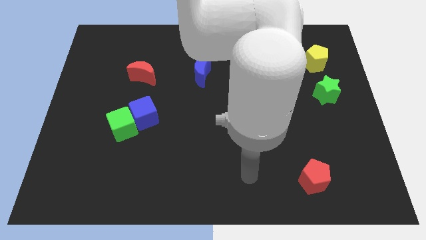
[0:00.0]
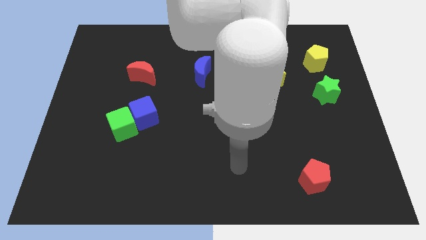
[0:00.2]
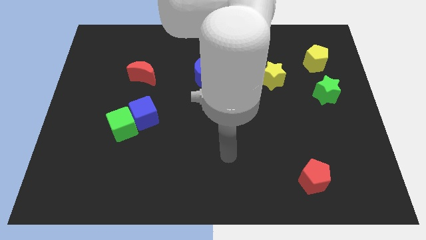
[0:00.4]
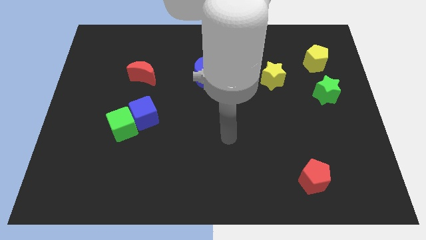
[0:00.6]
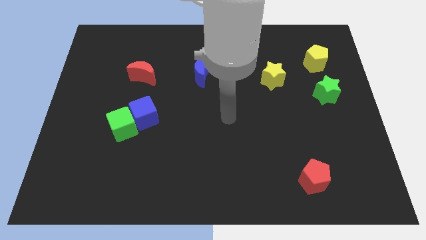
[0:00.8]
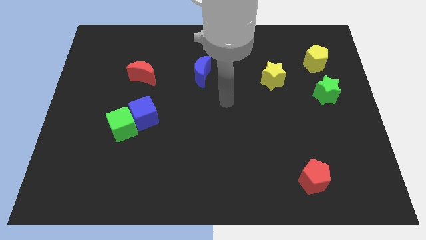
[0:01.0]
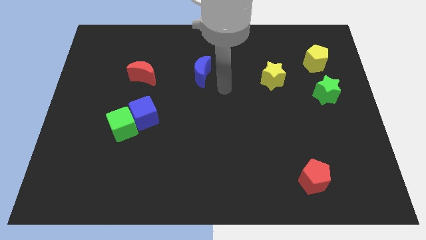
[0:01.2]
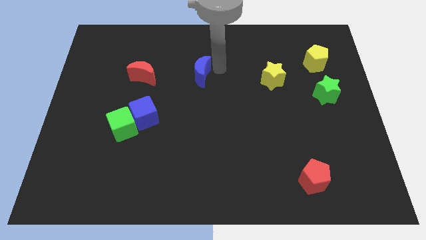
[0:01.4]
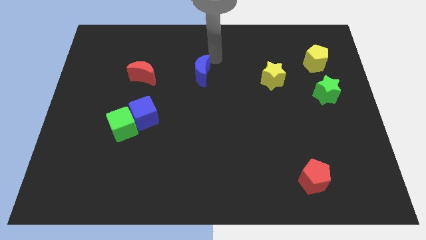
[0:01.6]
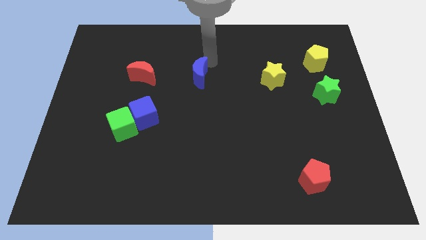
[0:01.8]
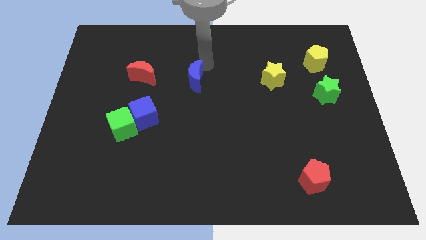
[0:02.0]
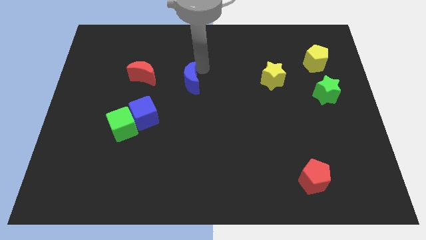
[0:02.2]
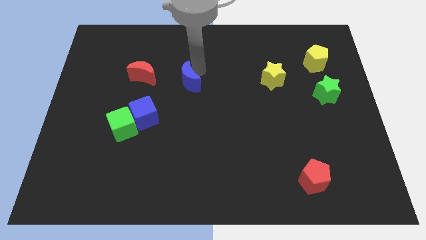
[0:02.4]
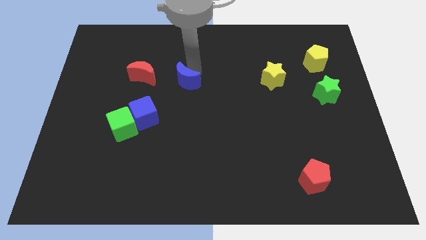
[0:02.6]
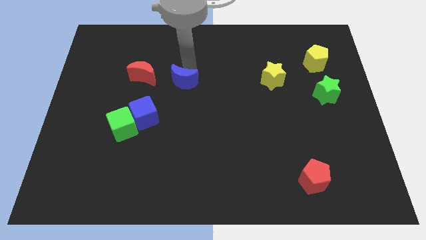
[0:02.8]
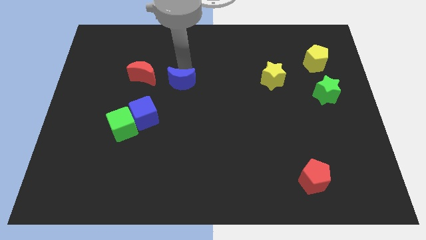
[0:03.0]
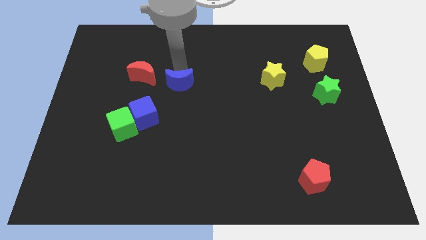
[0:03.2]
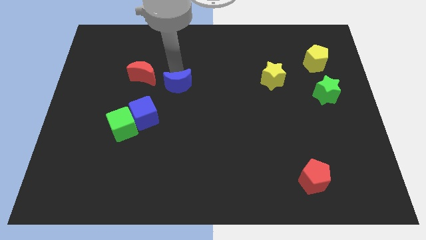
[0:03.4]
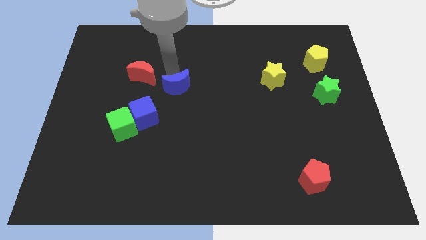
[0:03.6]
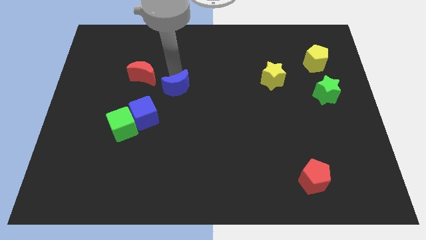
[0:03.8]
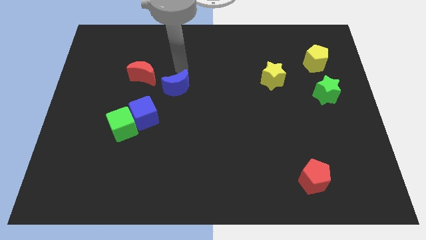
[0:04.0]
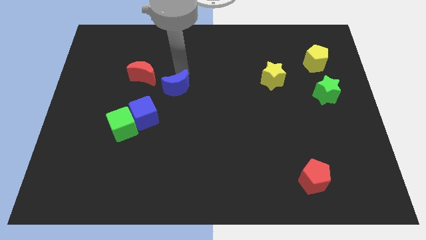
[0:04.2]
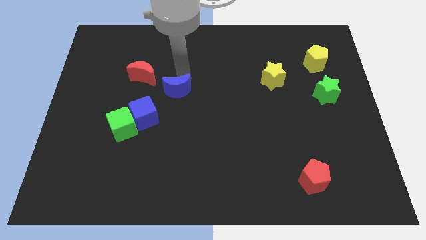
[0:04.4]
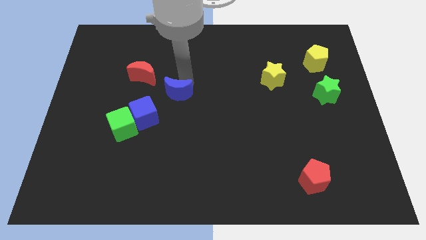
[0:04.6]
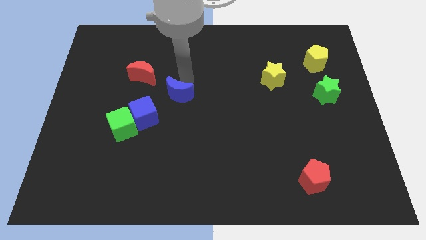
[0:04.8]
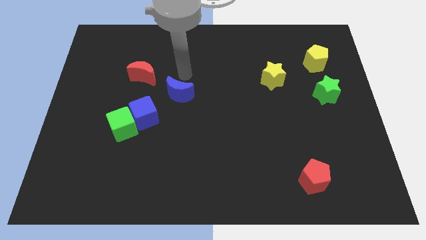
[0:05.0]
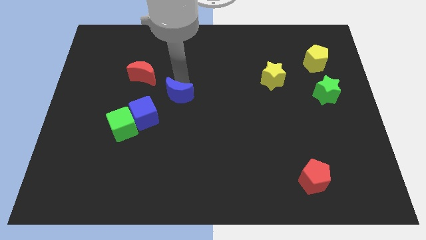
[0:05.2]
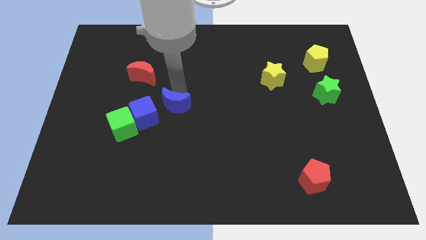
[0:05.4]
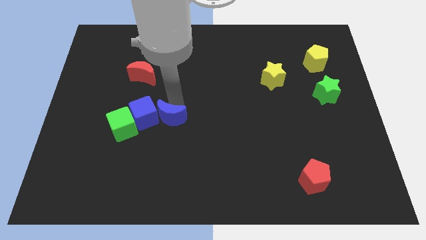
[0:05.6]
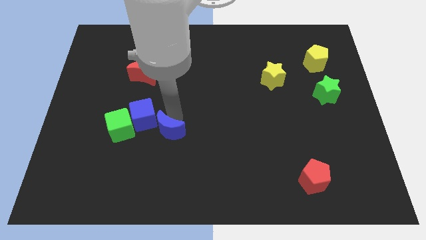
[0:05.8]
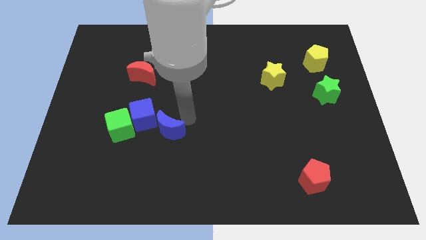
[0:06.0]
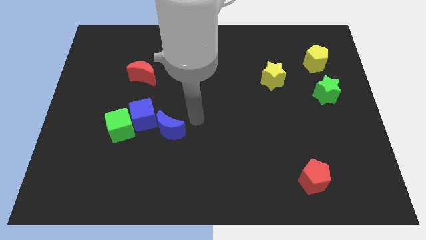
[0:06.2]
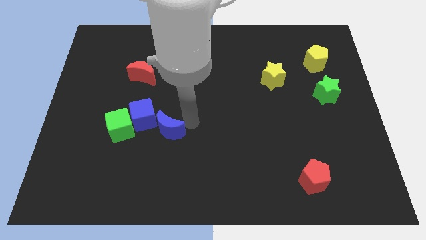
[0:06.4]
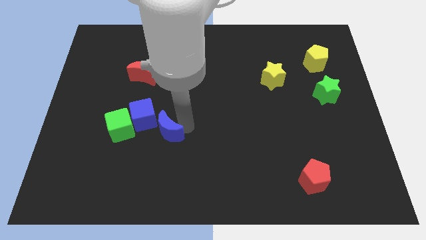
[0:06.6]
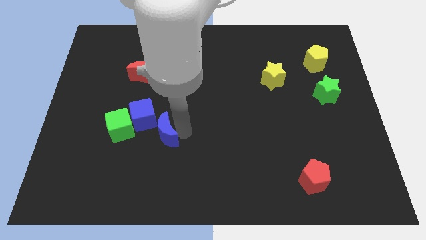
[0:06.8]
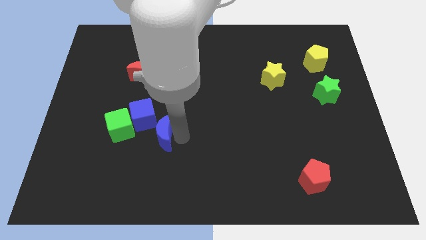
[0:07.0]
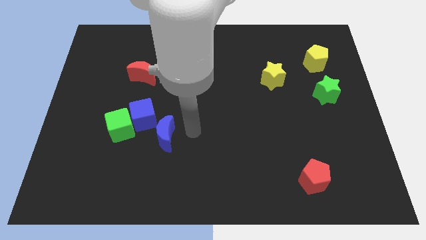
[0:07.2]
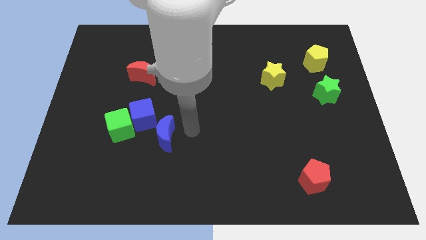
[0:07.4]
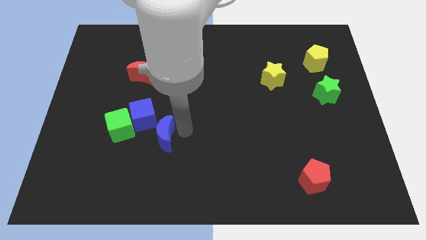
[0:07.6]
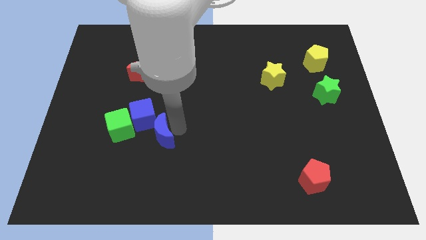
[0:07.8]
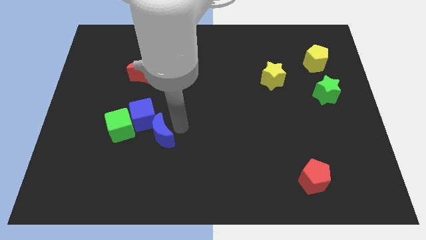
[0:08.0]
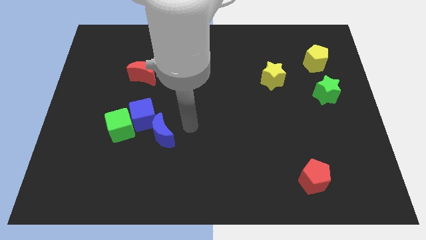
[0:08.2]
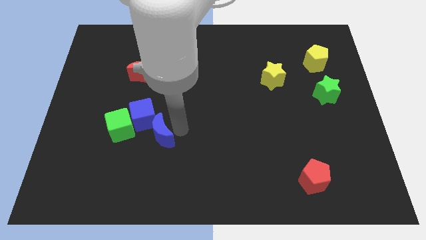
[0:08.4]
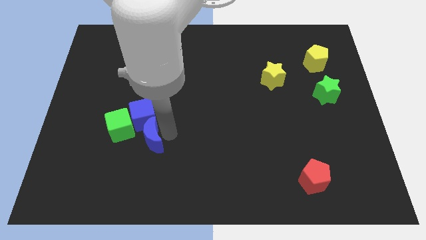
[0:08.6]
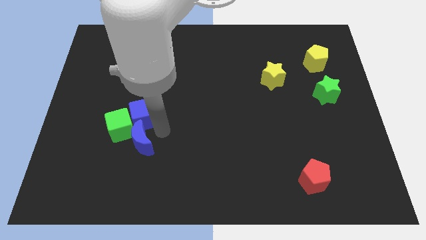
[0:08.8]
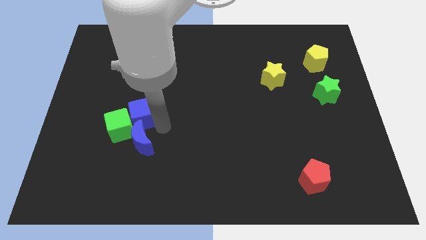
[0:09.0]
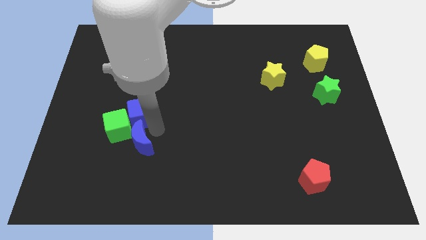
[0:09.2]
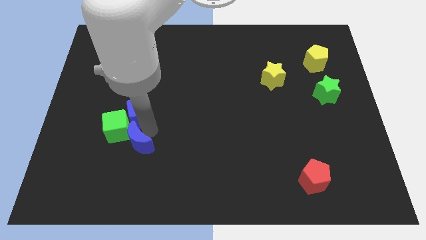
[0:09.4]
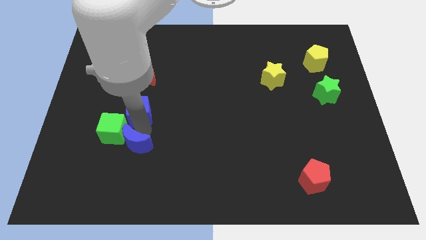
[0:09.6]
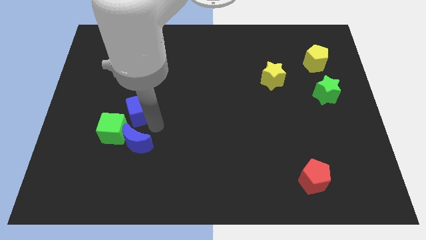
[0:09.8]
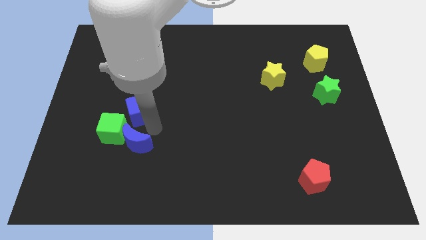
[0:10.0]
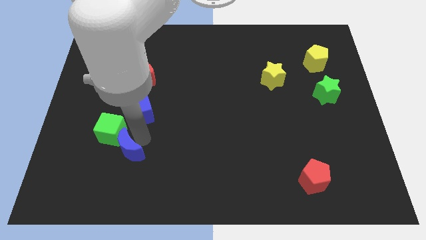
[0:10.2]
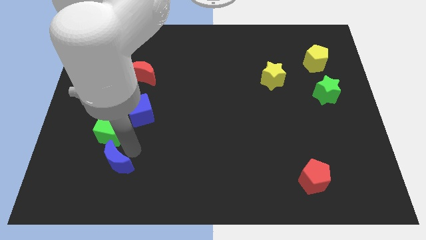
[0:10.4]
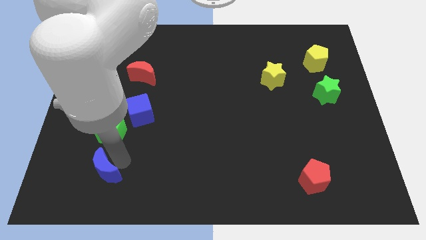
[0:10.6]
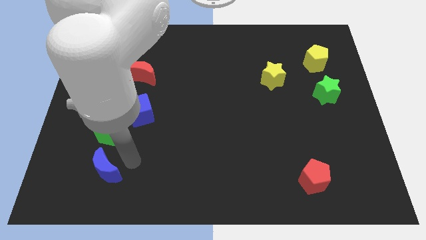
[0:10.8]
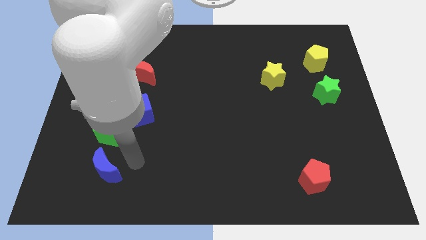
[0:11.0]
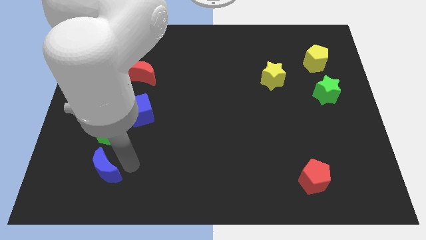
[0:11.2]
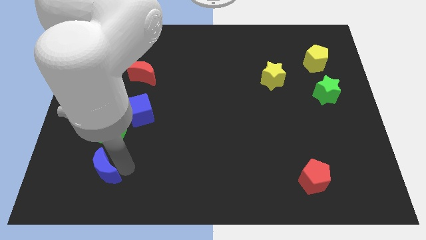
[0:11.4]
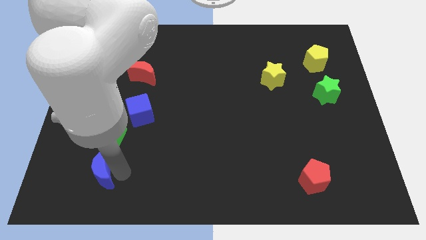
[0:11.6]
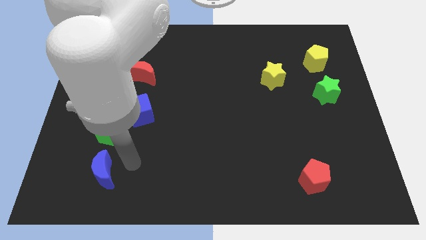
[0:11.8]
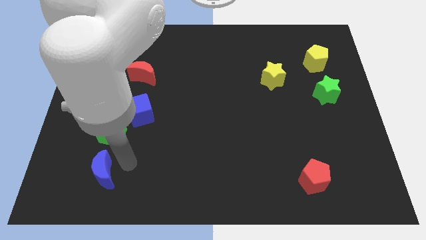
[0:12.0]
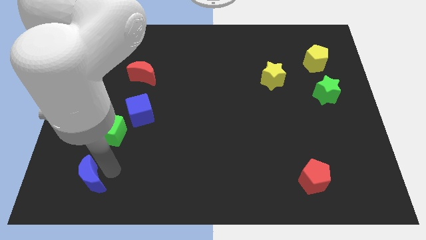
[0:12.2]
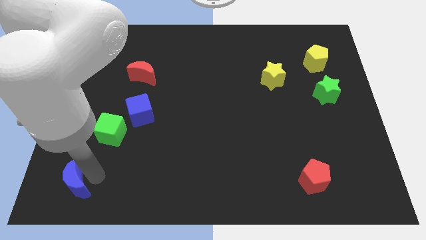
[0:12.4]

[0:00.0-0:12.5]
move the blue moon to the bottom left corner
